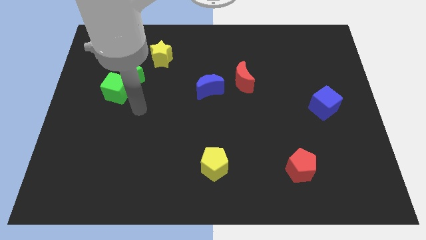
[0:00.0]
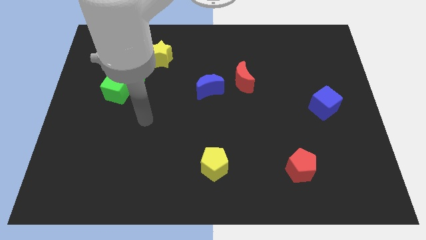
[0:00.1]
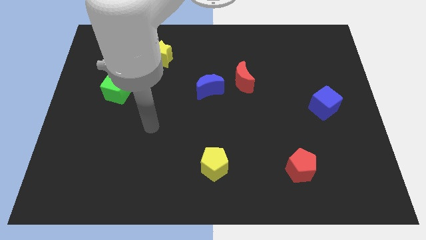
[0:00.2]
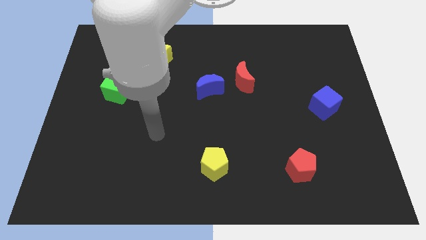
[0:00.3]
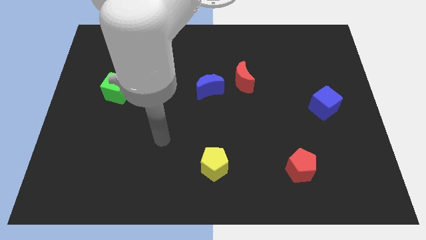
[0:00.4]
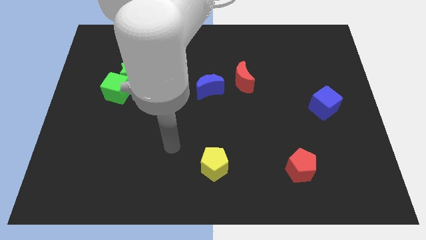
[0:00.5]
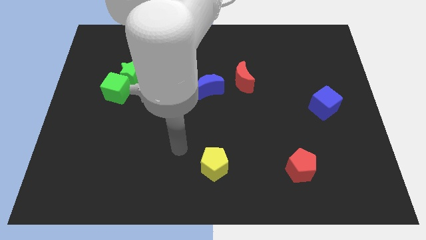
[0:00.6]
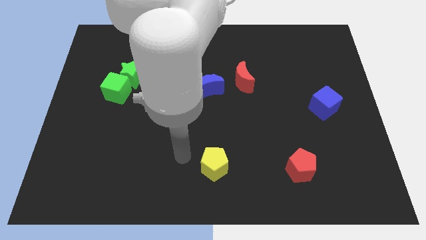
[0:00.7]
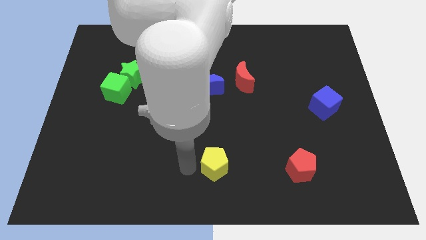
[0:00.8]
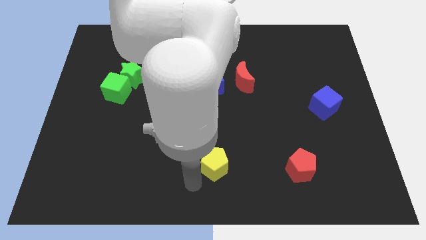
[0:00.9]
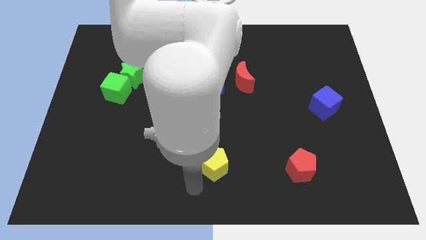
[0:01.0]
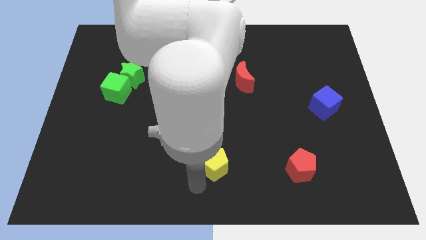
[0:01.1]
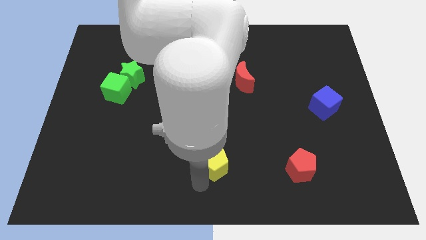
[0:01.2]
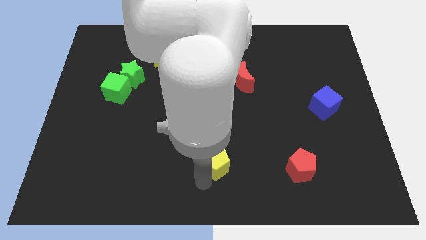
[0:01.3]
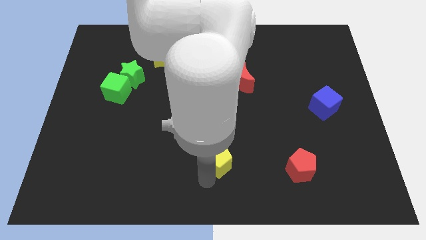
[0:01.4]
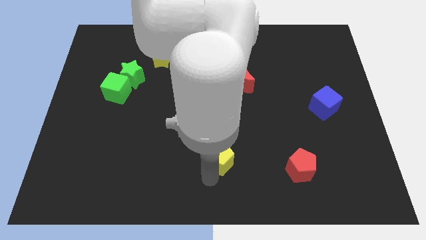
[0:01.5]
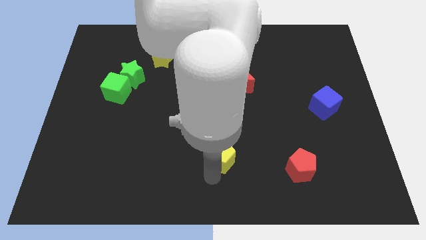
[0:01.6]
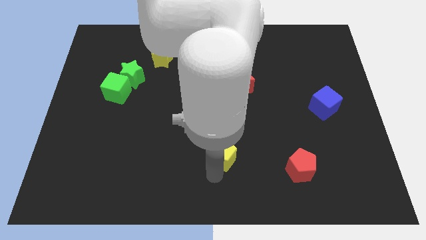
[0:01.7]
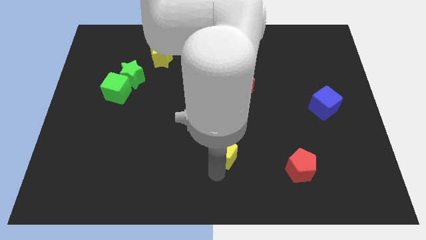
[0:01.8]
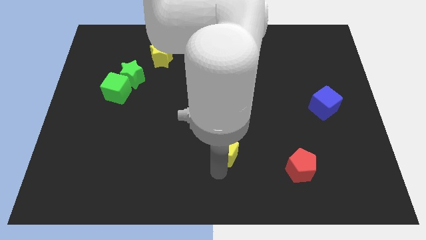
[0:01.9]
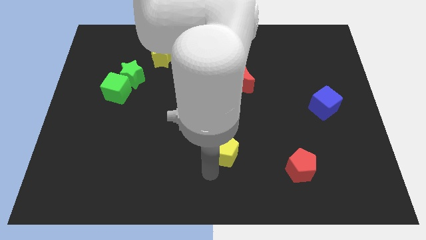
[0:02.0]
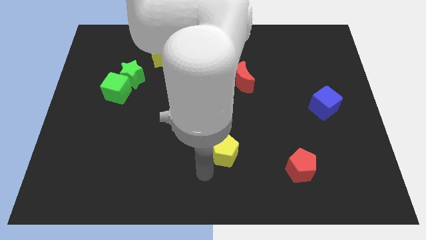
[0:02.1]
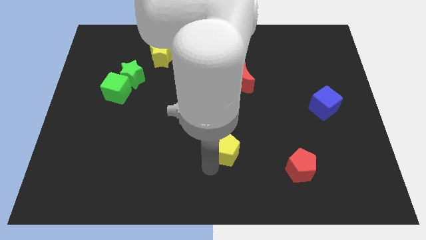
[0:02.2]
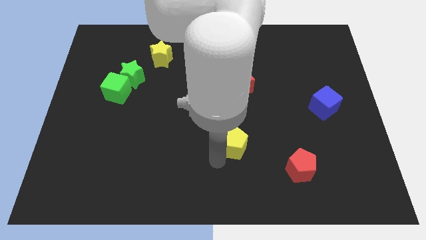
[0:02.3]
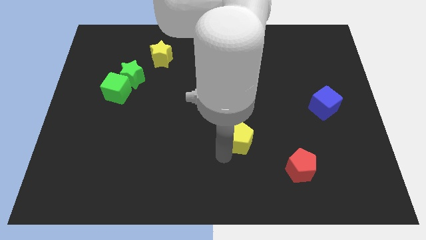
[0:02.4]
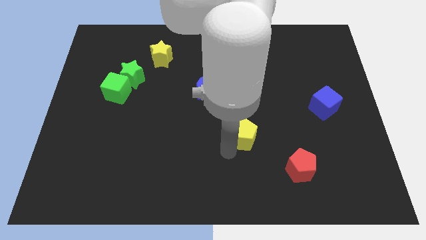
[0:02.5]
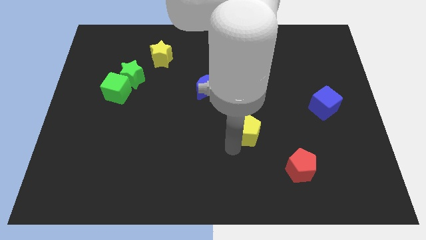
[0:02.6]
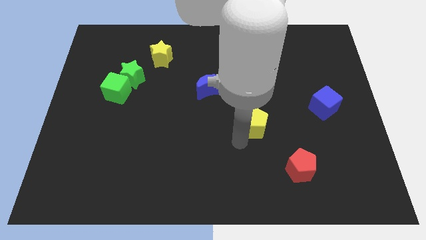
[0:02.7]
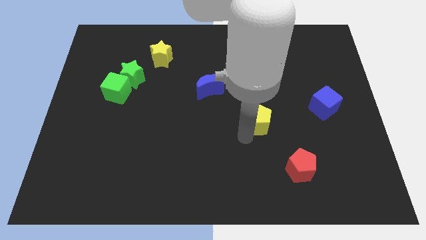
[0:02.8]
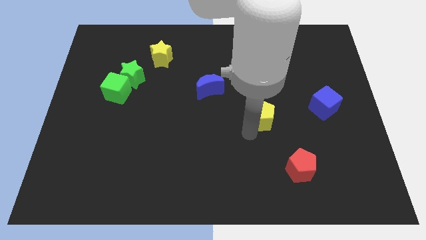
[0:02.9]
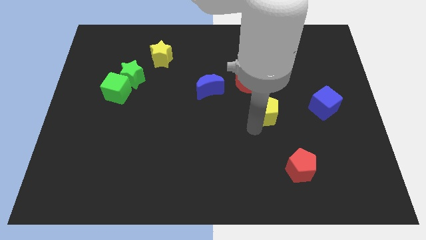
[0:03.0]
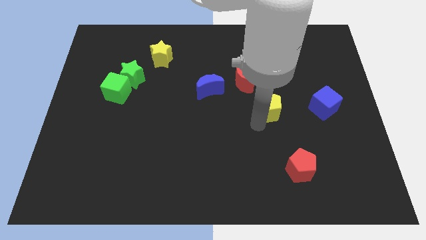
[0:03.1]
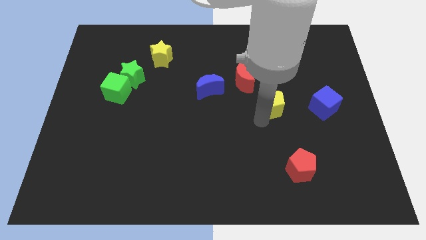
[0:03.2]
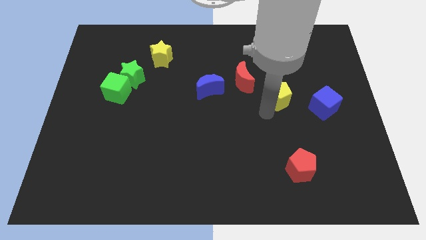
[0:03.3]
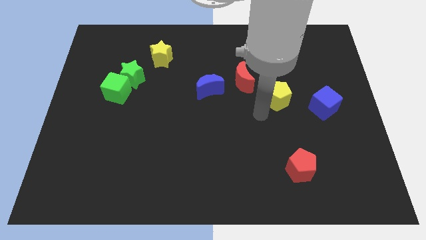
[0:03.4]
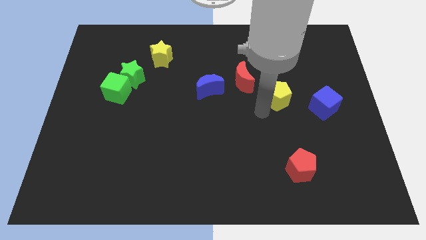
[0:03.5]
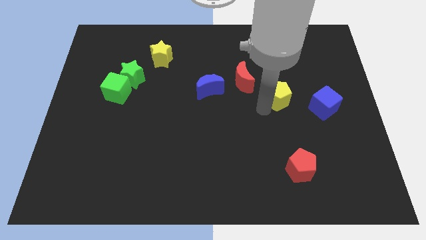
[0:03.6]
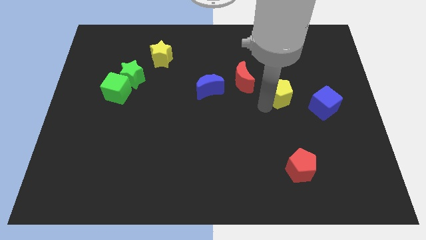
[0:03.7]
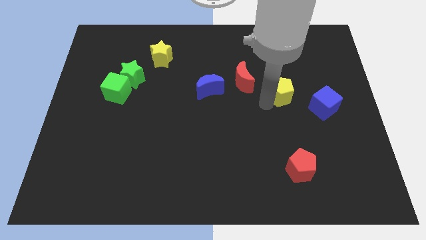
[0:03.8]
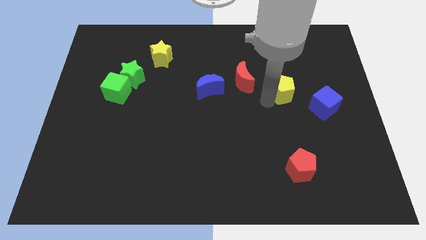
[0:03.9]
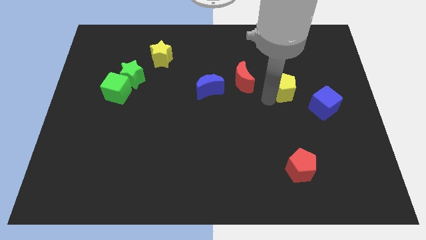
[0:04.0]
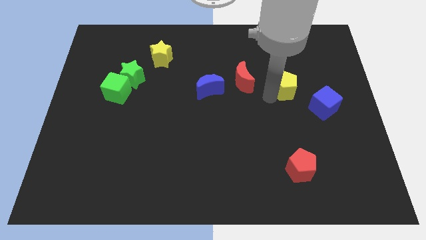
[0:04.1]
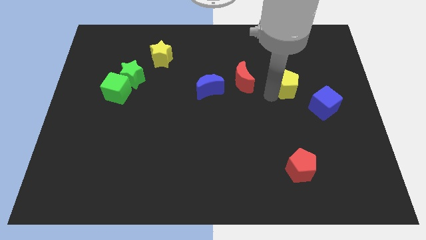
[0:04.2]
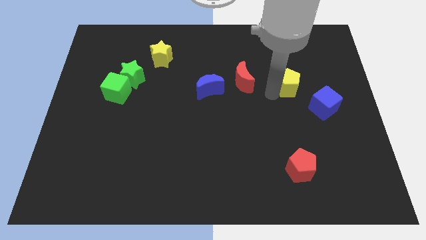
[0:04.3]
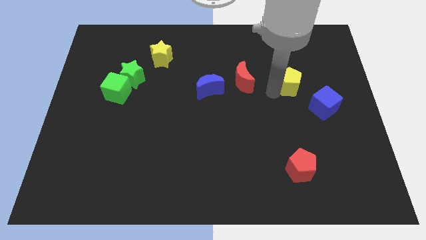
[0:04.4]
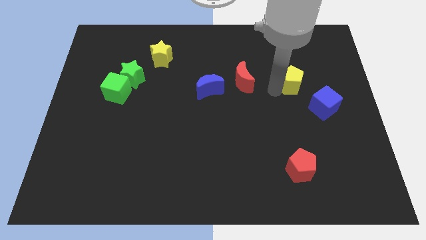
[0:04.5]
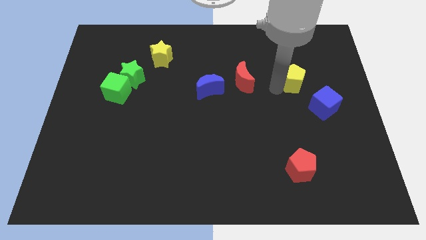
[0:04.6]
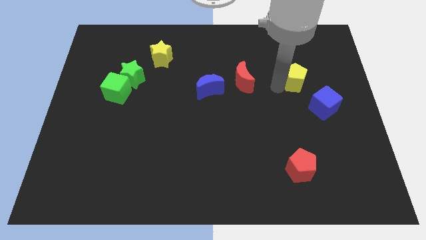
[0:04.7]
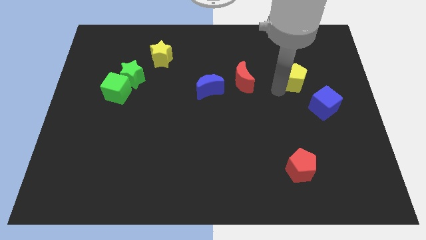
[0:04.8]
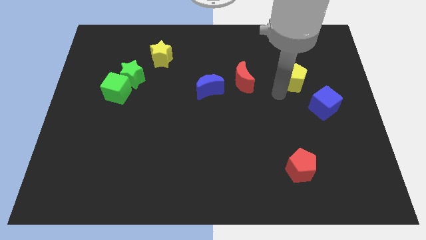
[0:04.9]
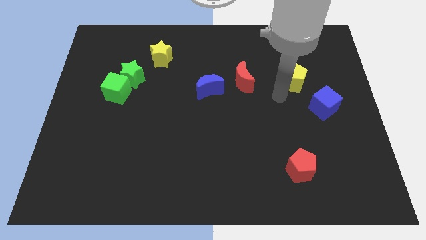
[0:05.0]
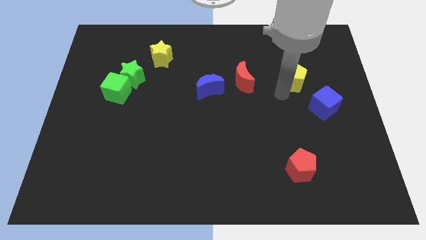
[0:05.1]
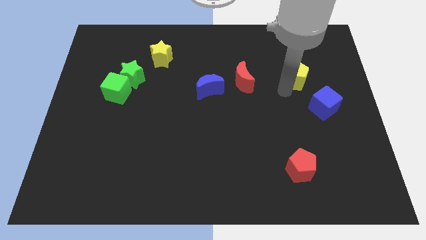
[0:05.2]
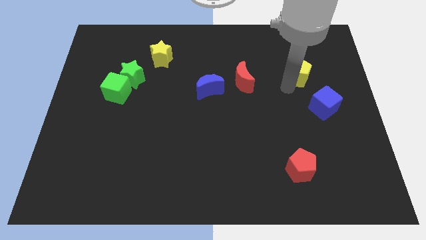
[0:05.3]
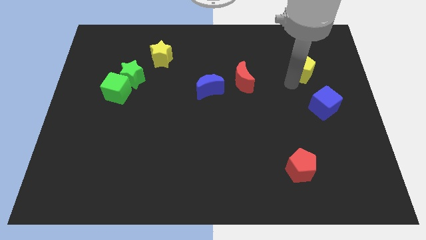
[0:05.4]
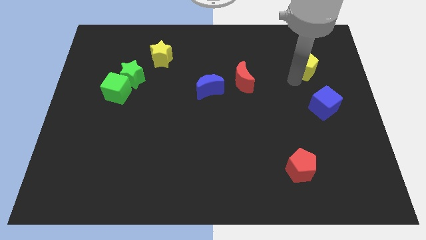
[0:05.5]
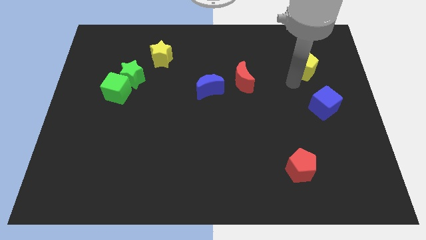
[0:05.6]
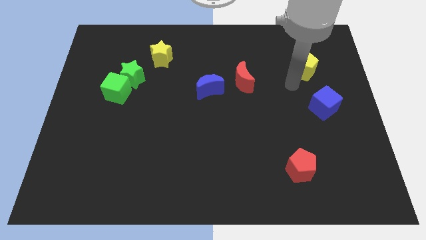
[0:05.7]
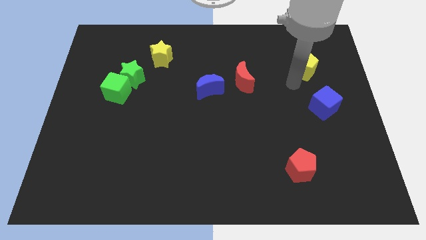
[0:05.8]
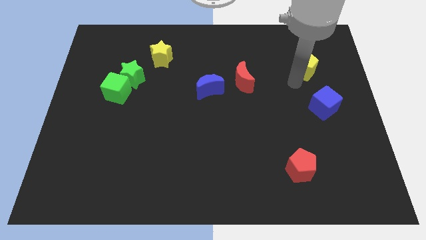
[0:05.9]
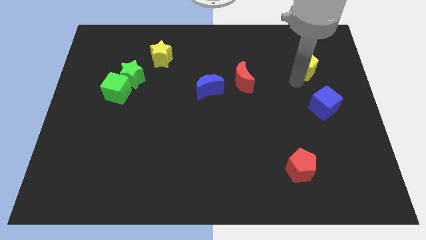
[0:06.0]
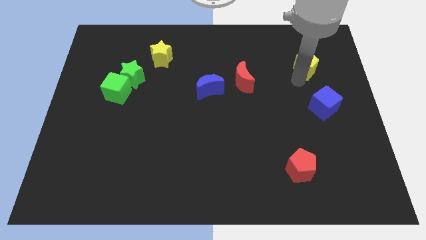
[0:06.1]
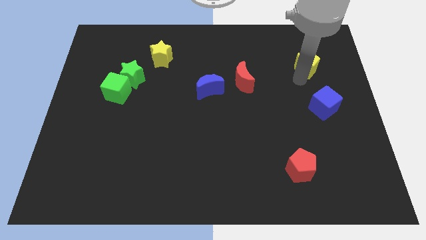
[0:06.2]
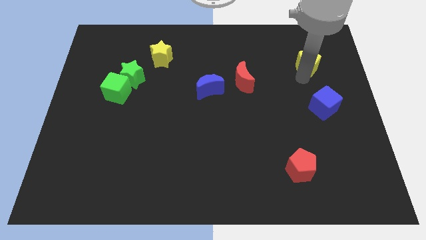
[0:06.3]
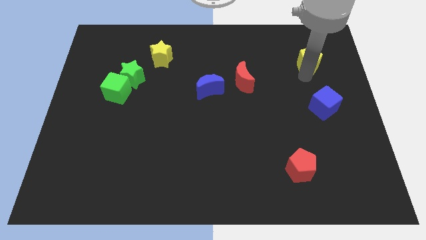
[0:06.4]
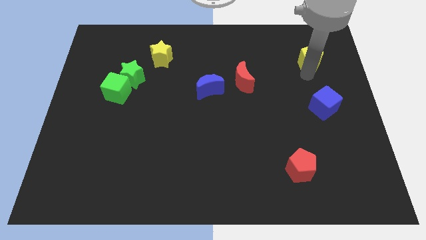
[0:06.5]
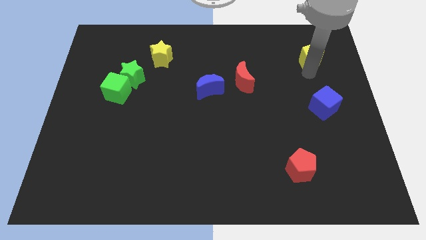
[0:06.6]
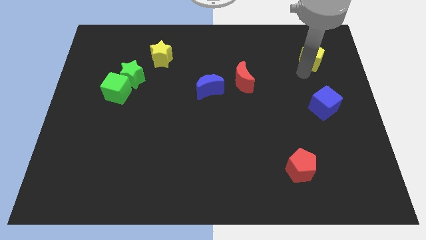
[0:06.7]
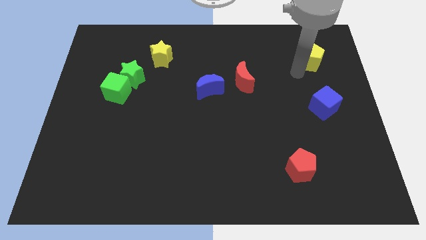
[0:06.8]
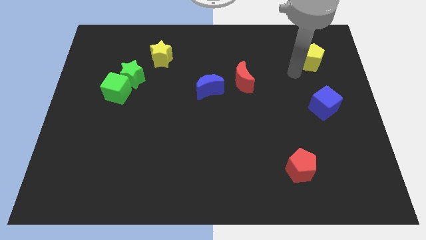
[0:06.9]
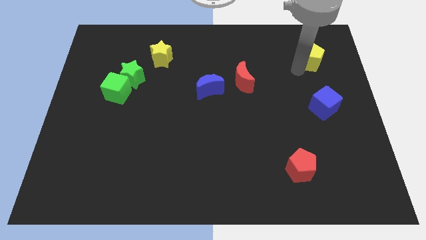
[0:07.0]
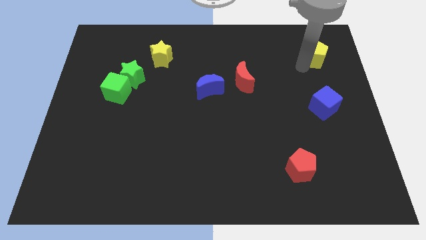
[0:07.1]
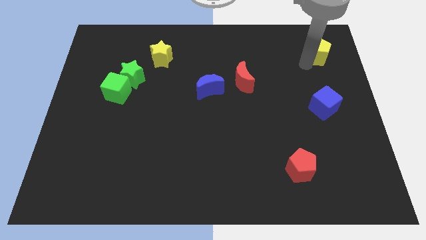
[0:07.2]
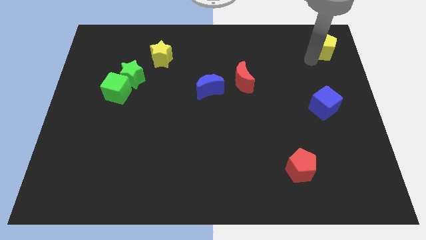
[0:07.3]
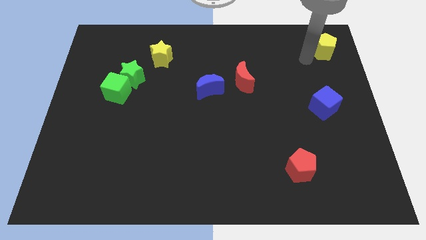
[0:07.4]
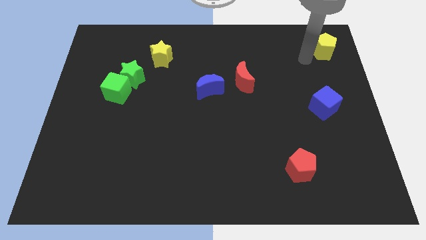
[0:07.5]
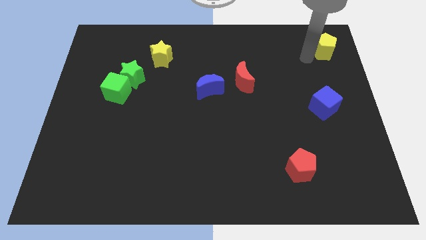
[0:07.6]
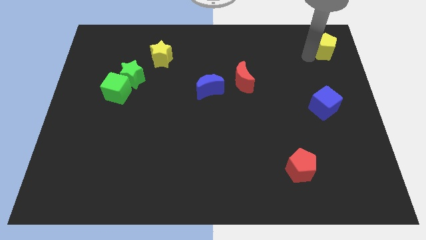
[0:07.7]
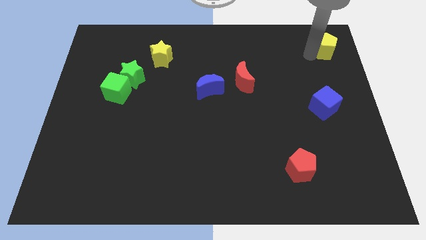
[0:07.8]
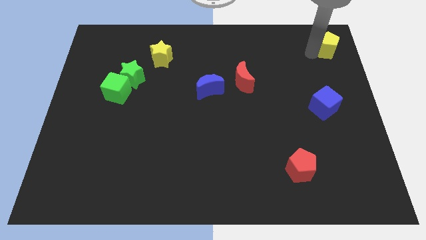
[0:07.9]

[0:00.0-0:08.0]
slide the yellow pentagon to the top right of the board
